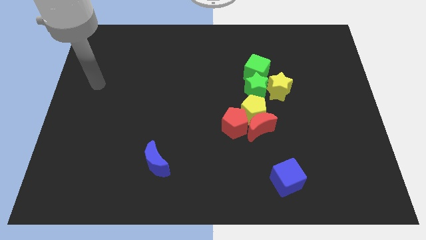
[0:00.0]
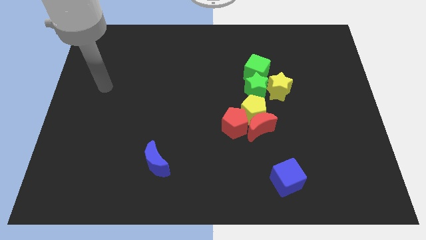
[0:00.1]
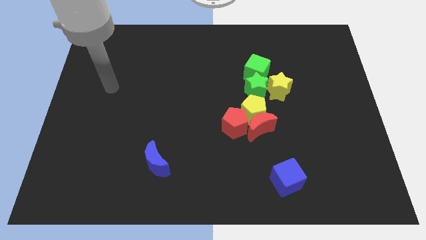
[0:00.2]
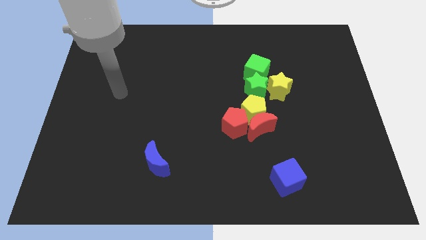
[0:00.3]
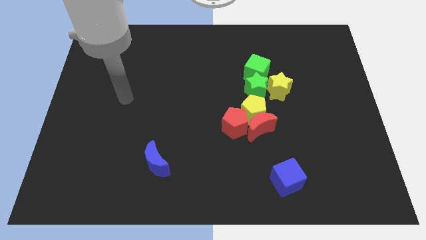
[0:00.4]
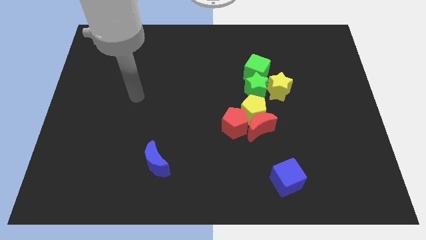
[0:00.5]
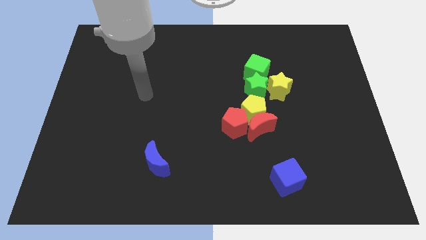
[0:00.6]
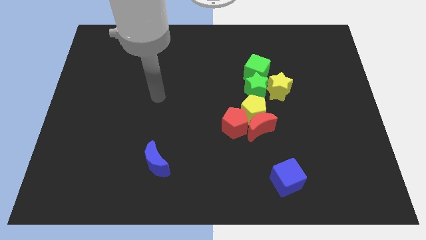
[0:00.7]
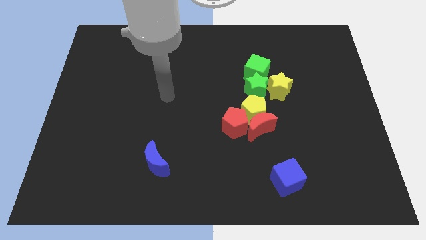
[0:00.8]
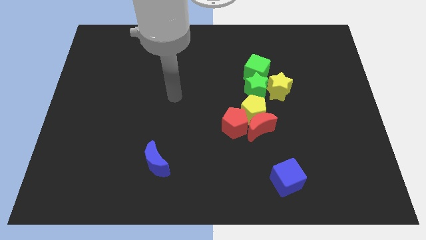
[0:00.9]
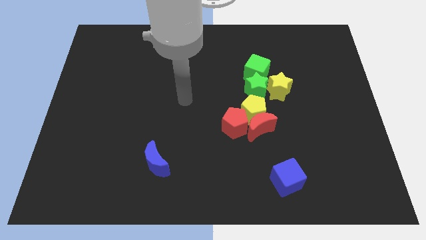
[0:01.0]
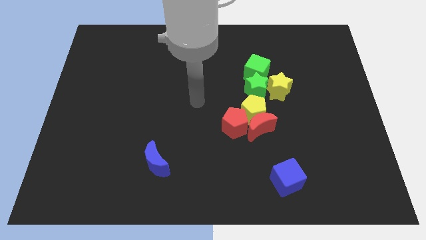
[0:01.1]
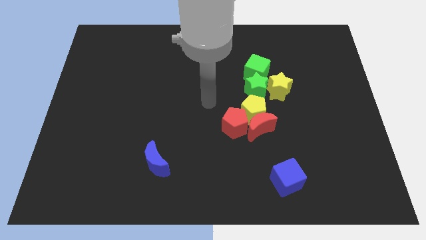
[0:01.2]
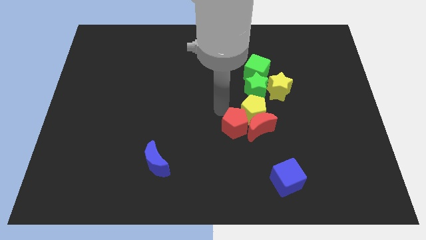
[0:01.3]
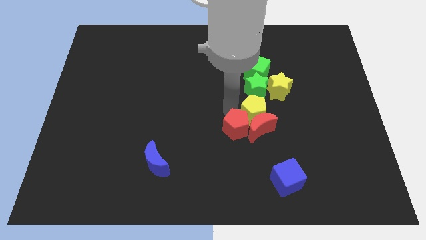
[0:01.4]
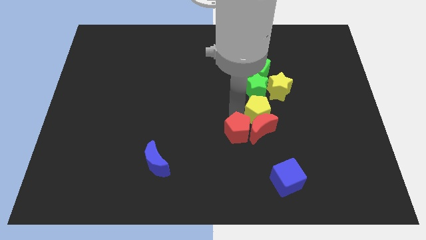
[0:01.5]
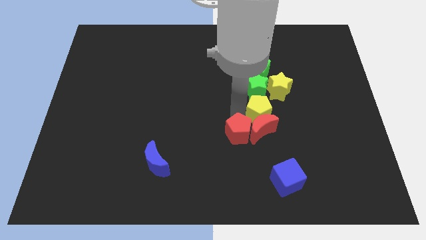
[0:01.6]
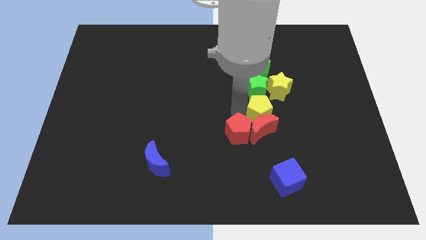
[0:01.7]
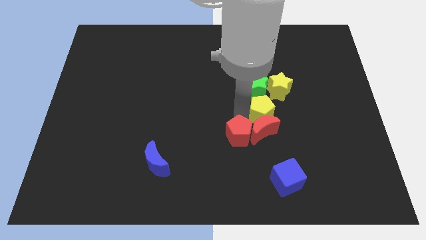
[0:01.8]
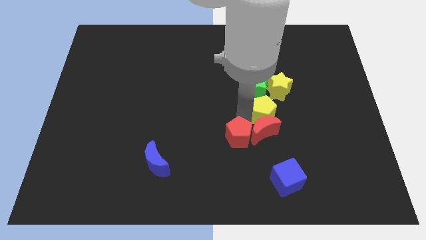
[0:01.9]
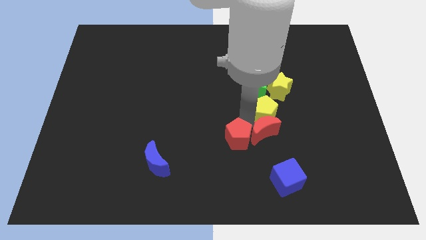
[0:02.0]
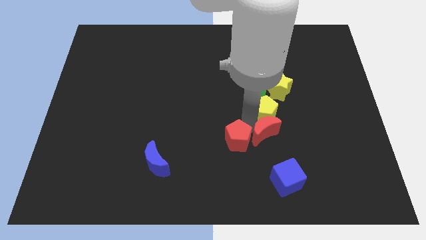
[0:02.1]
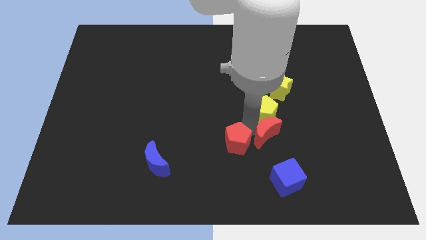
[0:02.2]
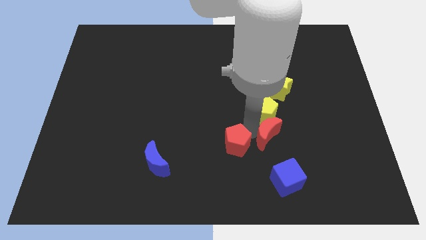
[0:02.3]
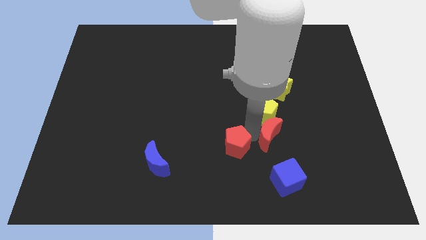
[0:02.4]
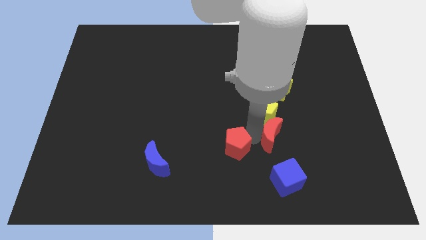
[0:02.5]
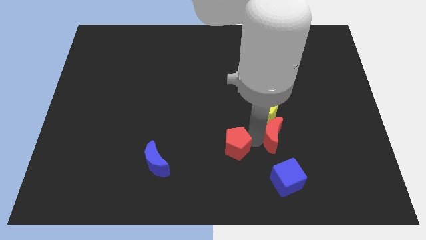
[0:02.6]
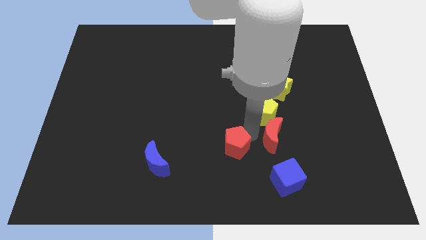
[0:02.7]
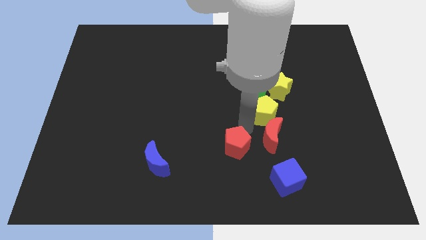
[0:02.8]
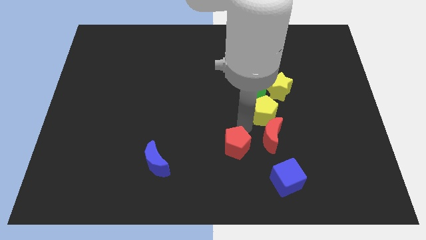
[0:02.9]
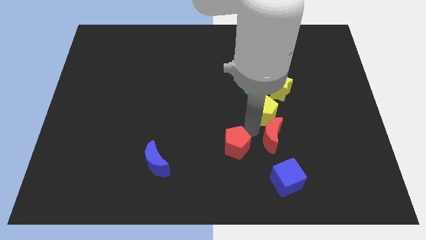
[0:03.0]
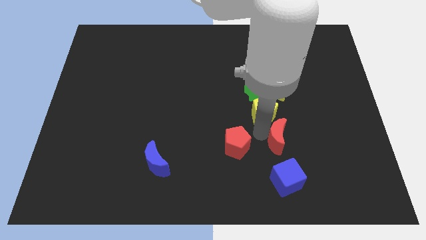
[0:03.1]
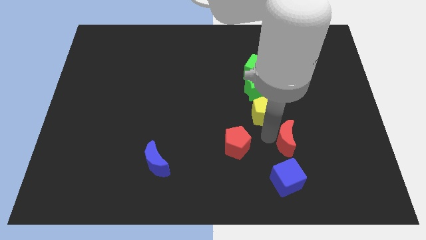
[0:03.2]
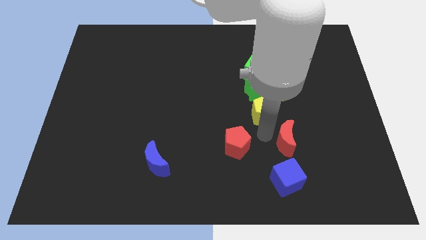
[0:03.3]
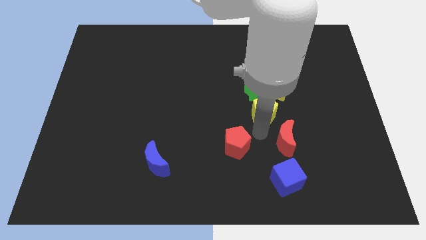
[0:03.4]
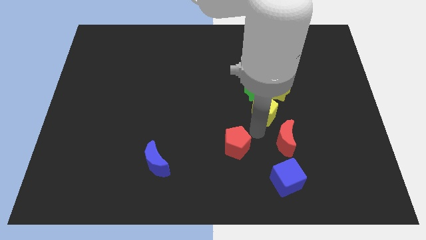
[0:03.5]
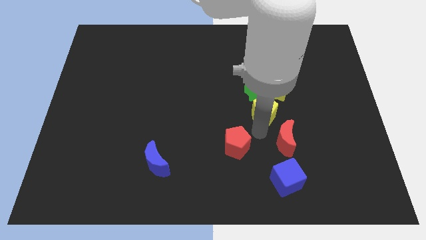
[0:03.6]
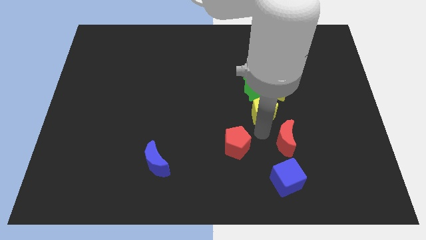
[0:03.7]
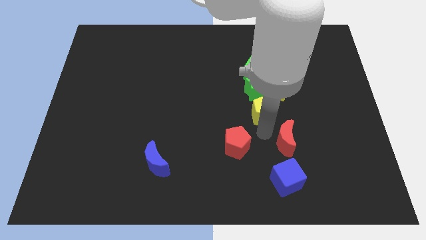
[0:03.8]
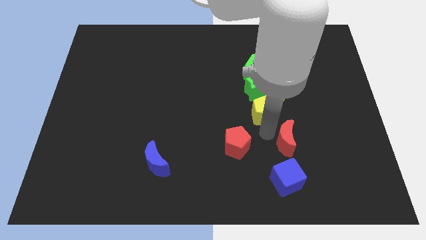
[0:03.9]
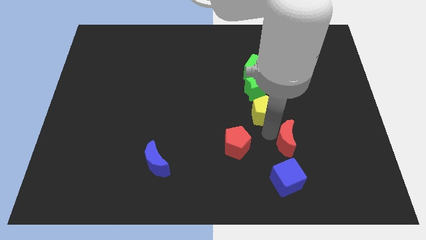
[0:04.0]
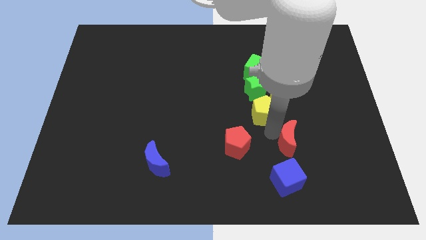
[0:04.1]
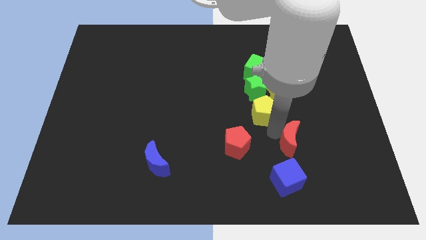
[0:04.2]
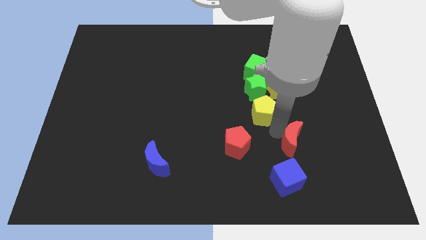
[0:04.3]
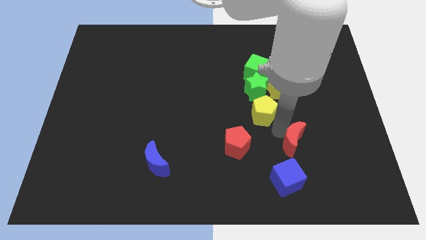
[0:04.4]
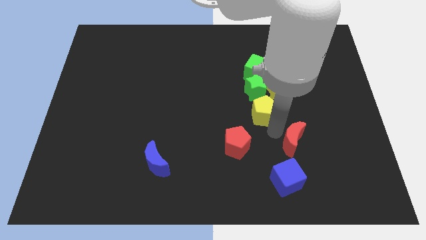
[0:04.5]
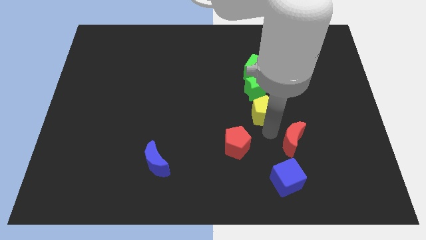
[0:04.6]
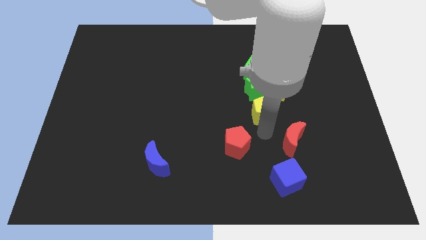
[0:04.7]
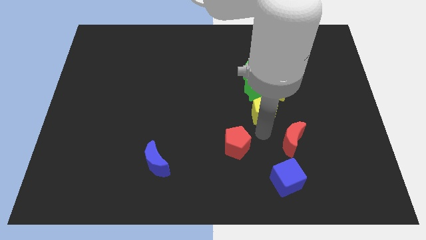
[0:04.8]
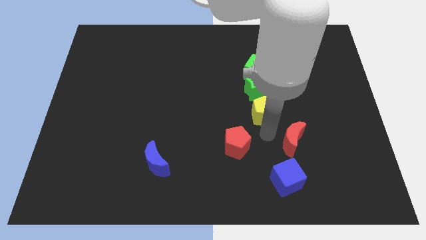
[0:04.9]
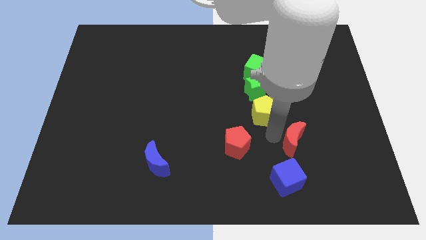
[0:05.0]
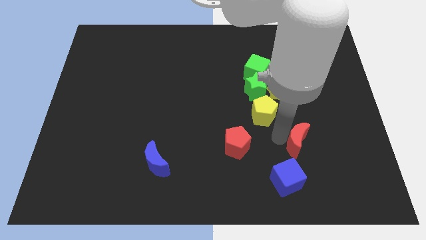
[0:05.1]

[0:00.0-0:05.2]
pull the red moon apart from the yellow pentagon and red pentagon

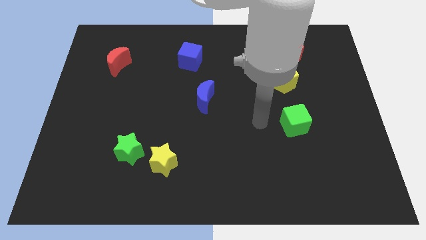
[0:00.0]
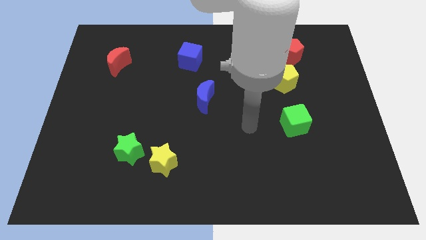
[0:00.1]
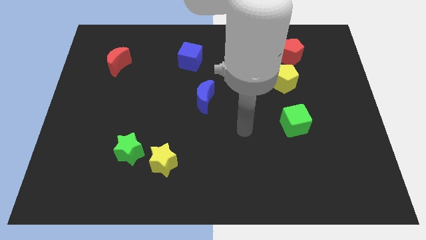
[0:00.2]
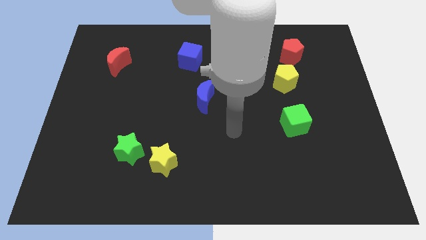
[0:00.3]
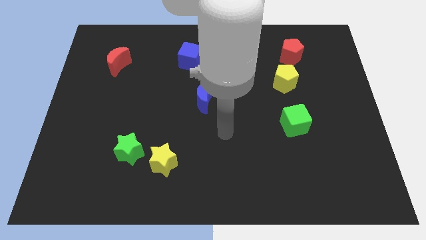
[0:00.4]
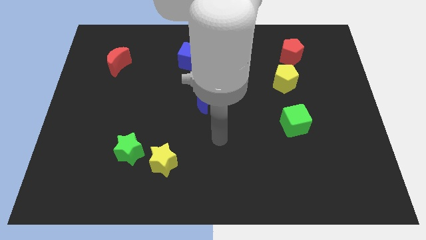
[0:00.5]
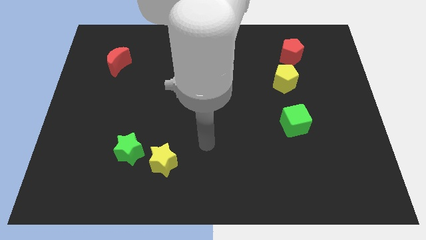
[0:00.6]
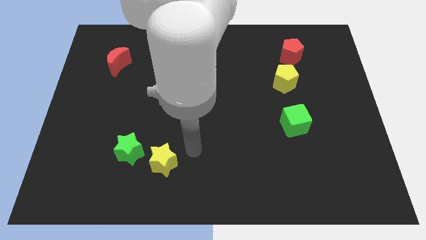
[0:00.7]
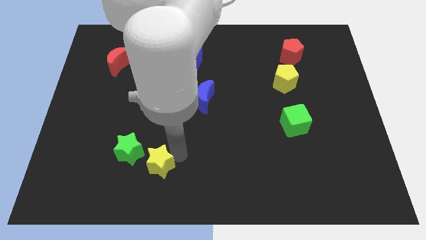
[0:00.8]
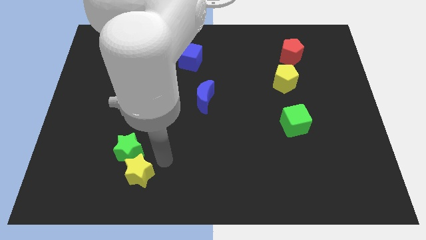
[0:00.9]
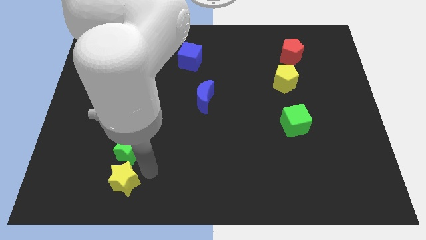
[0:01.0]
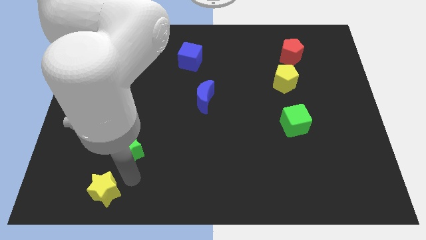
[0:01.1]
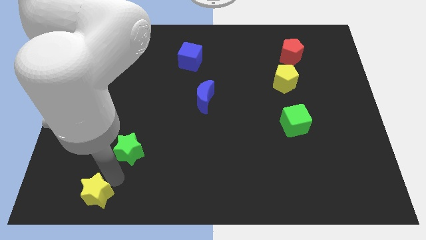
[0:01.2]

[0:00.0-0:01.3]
pull the green star apart from the yellow star

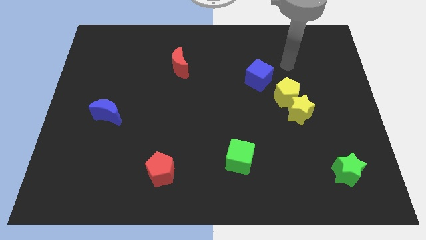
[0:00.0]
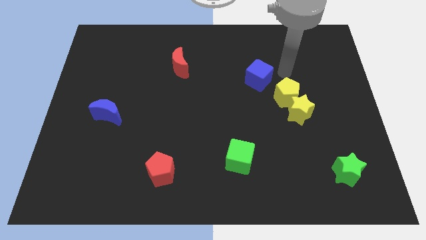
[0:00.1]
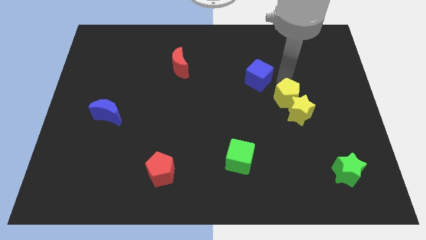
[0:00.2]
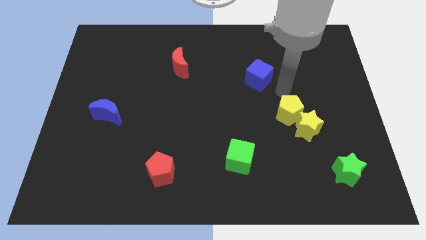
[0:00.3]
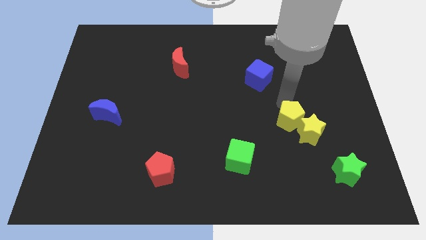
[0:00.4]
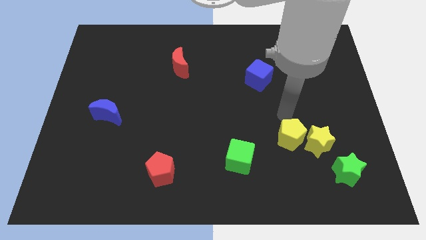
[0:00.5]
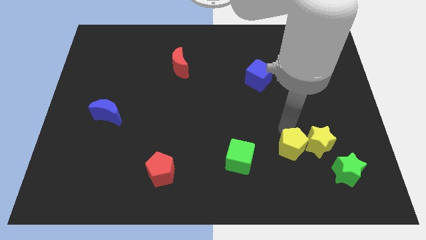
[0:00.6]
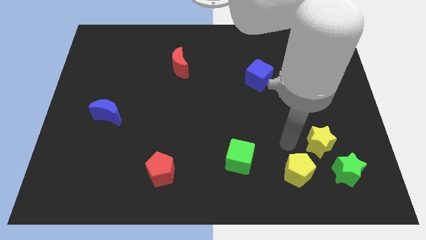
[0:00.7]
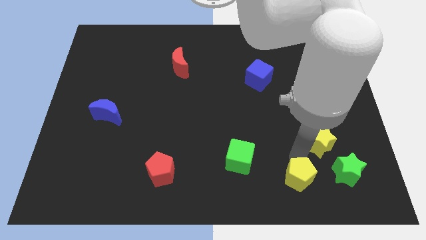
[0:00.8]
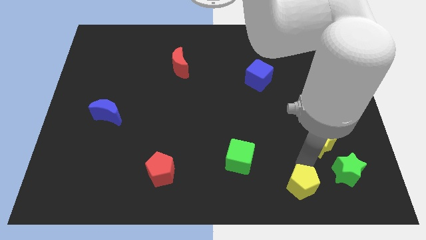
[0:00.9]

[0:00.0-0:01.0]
separate the yellow star from the yellow pentagon

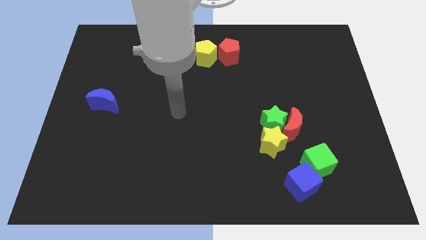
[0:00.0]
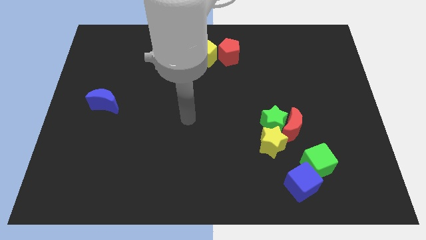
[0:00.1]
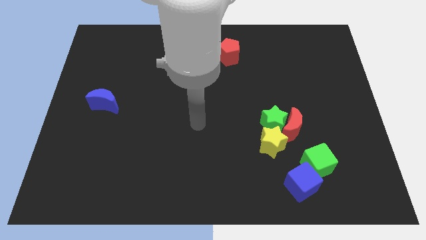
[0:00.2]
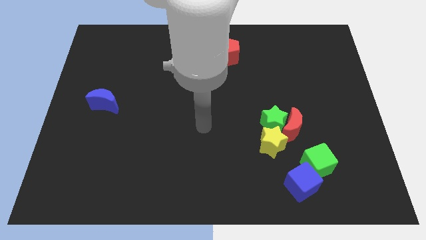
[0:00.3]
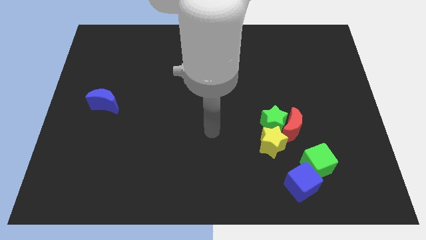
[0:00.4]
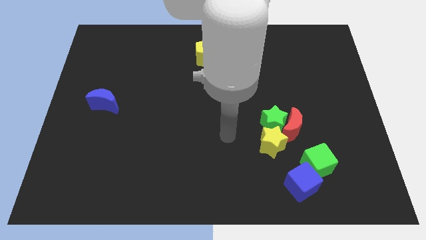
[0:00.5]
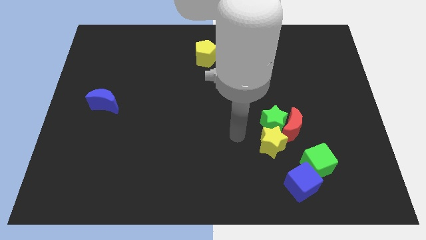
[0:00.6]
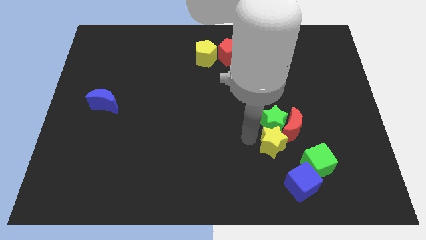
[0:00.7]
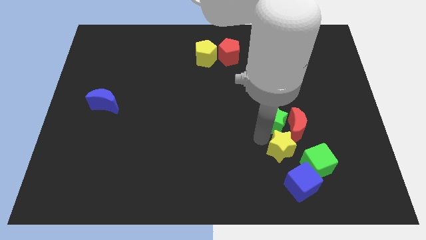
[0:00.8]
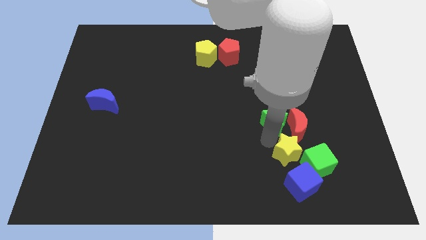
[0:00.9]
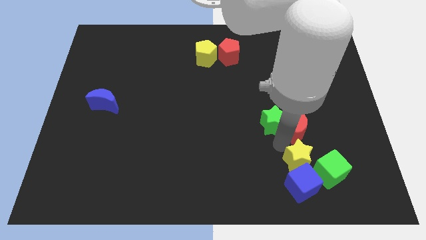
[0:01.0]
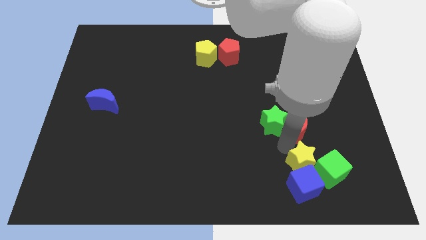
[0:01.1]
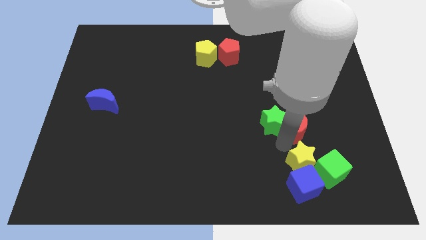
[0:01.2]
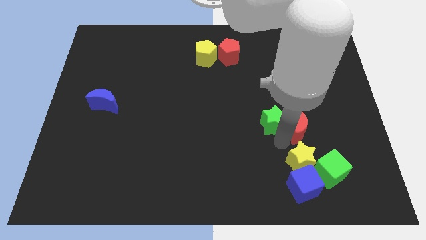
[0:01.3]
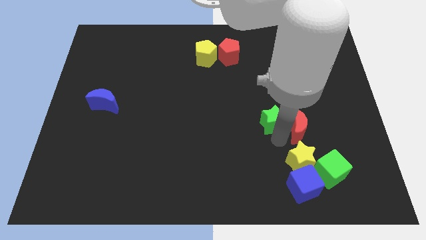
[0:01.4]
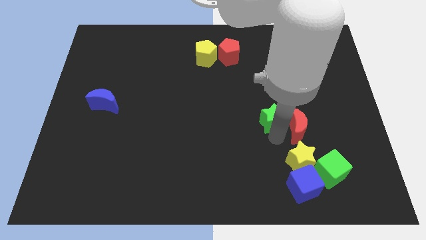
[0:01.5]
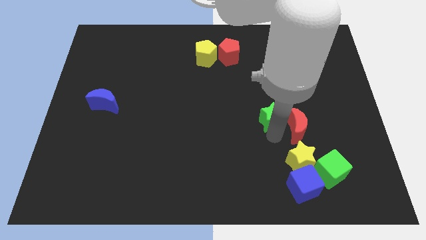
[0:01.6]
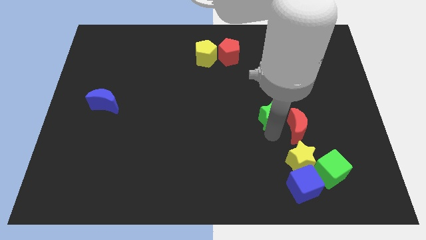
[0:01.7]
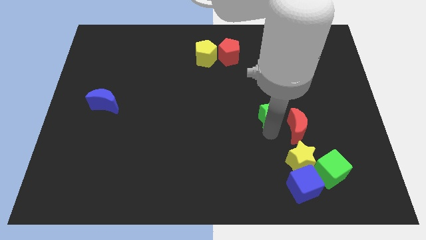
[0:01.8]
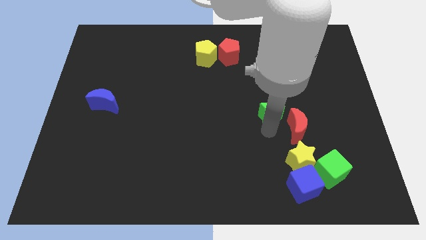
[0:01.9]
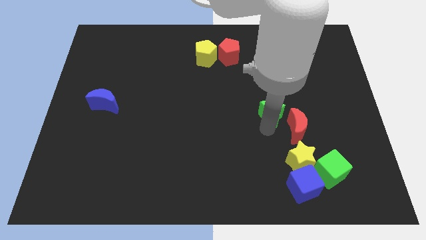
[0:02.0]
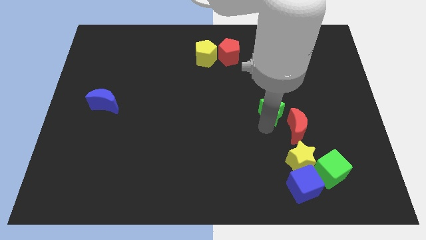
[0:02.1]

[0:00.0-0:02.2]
separate the green star from the red moon and yellow star
